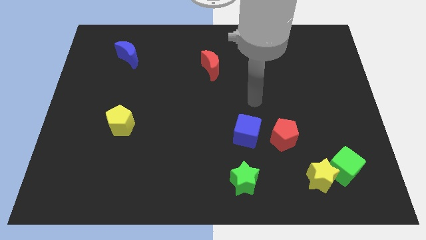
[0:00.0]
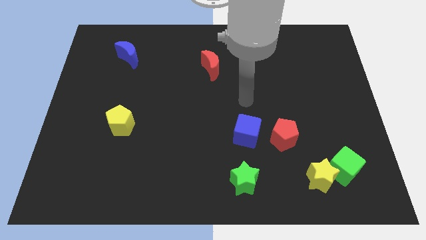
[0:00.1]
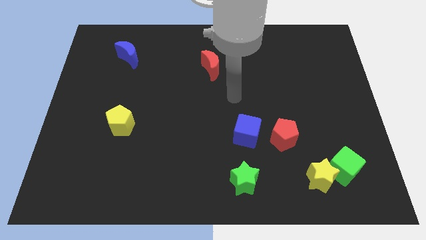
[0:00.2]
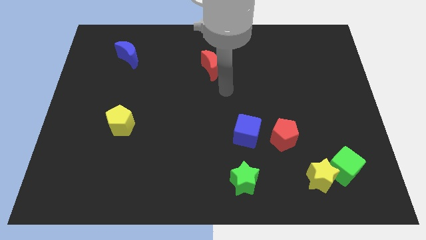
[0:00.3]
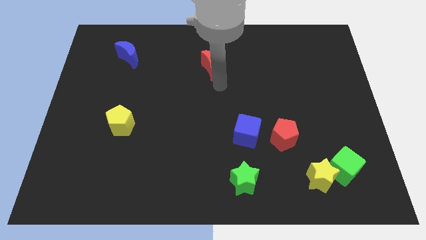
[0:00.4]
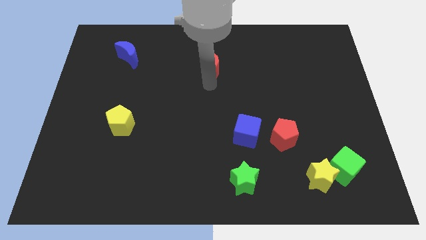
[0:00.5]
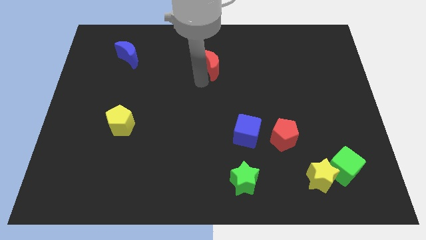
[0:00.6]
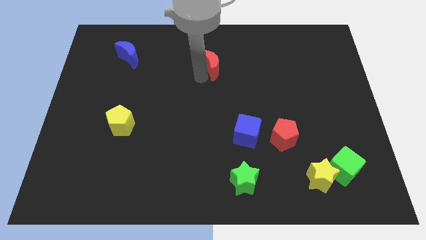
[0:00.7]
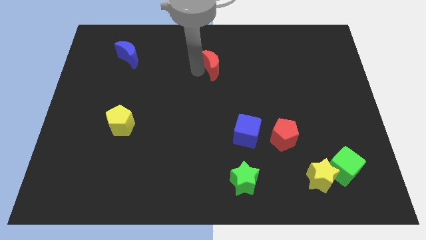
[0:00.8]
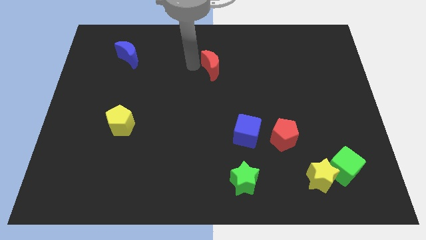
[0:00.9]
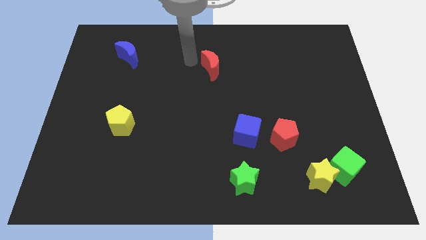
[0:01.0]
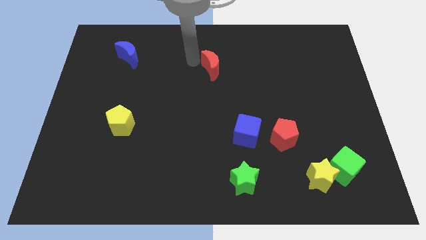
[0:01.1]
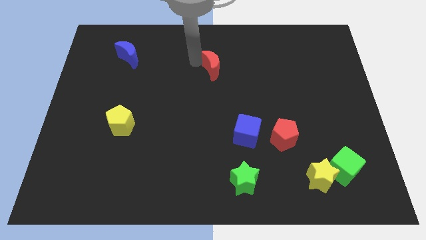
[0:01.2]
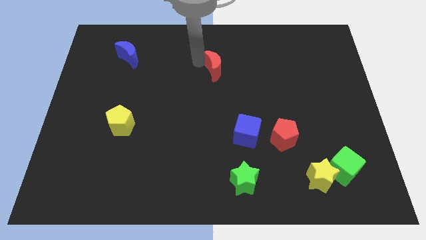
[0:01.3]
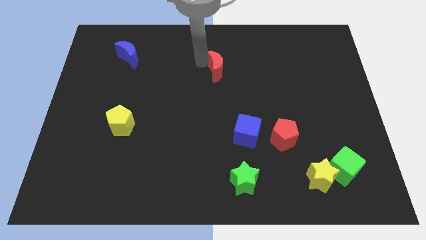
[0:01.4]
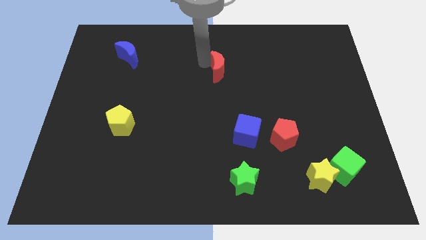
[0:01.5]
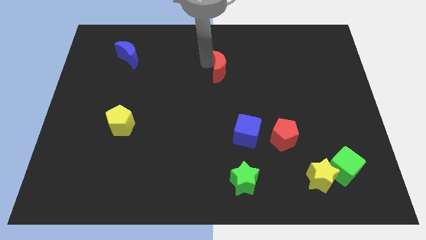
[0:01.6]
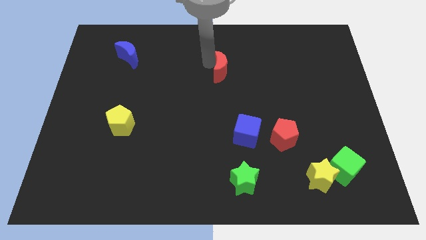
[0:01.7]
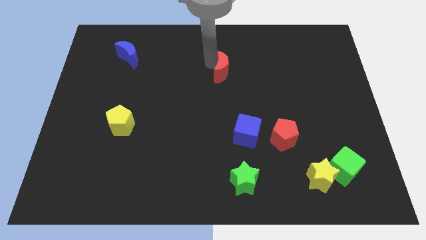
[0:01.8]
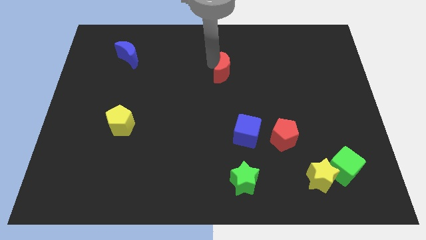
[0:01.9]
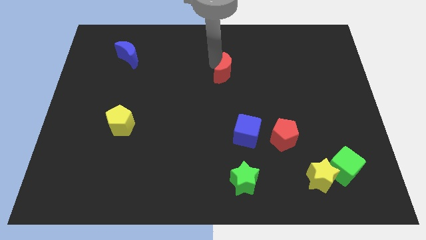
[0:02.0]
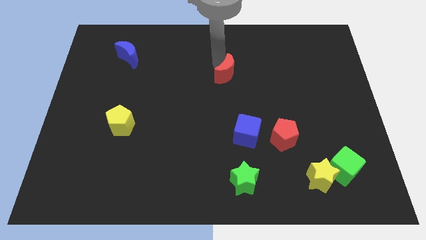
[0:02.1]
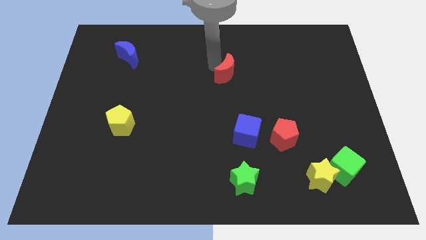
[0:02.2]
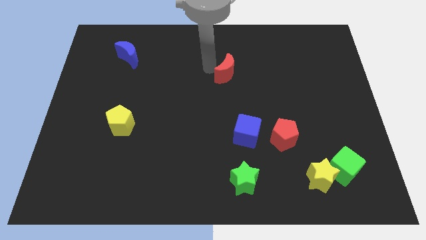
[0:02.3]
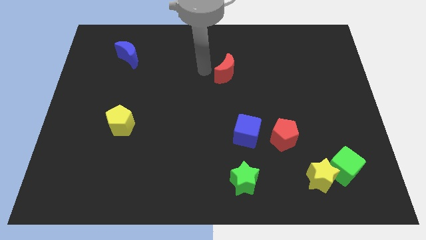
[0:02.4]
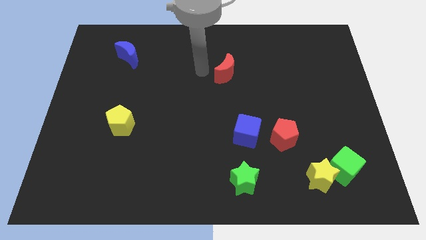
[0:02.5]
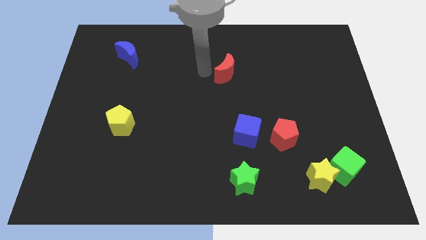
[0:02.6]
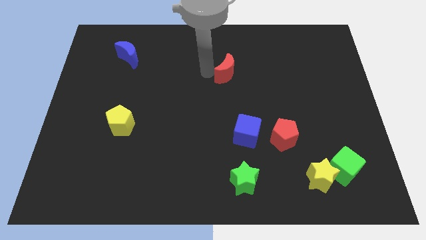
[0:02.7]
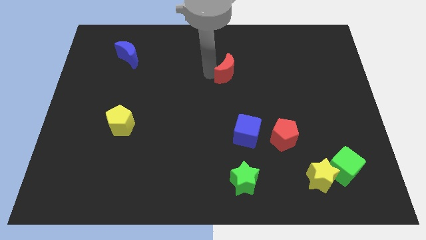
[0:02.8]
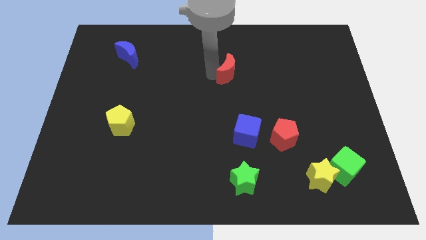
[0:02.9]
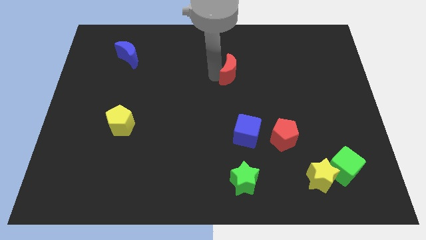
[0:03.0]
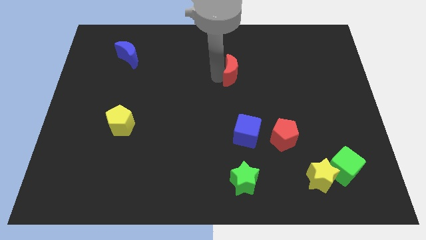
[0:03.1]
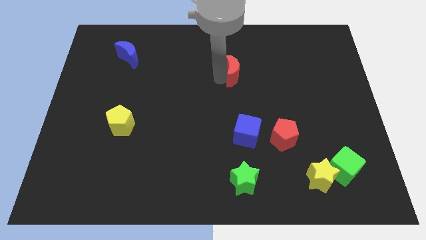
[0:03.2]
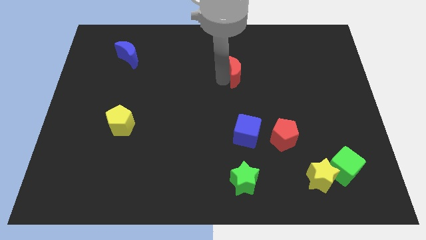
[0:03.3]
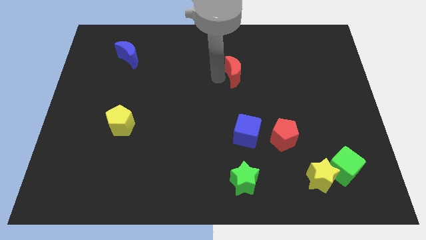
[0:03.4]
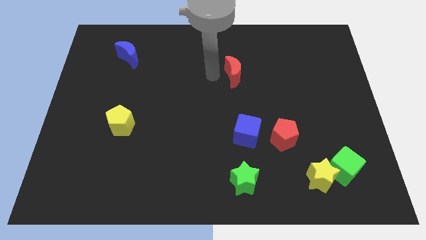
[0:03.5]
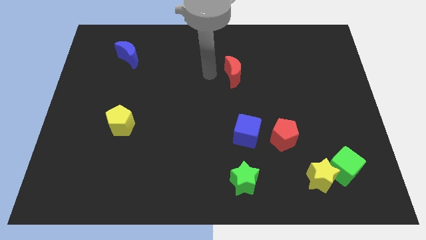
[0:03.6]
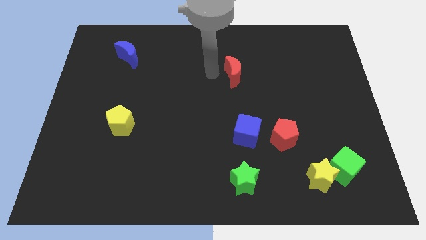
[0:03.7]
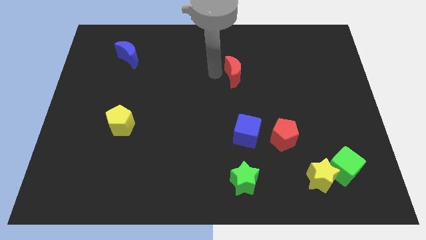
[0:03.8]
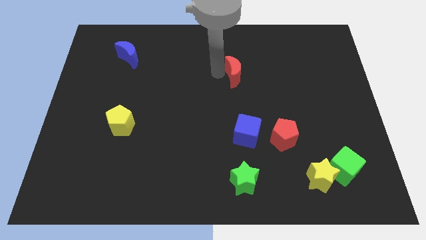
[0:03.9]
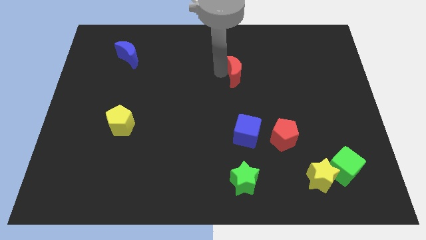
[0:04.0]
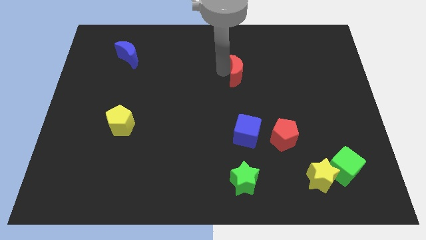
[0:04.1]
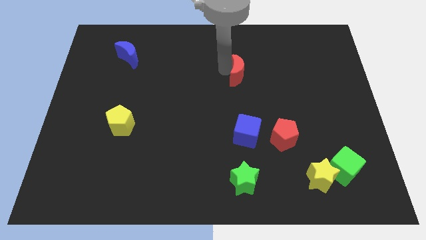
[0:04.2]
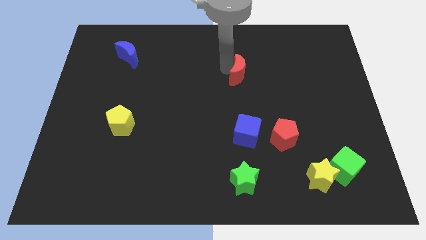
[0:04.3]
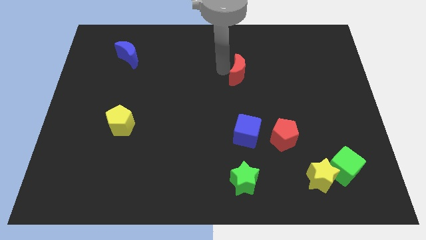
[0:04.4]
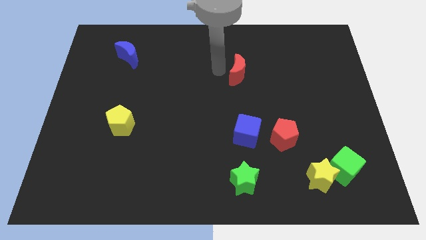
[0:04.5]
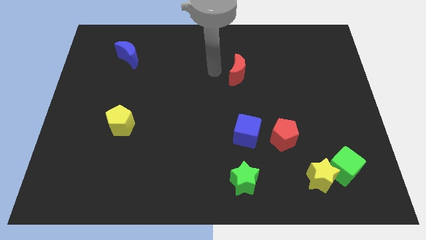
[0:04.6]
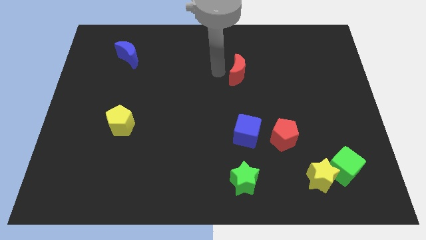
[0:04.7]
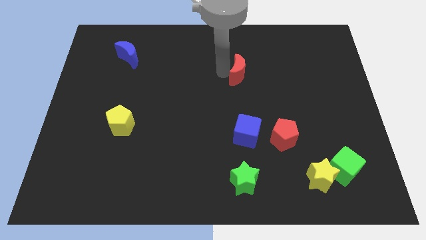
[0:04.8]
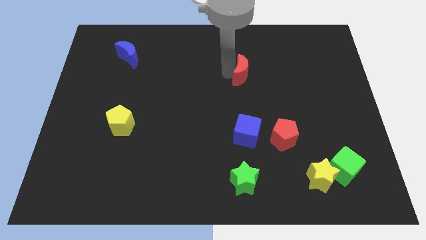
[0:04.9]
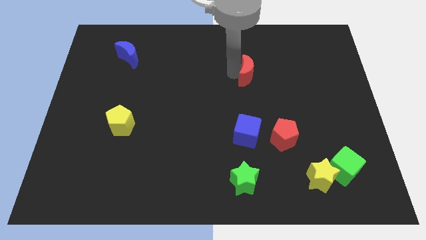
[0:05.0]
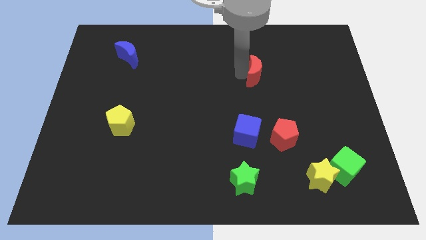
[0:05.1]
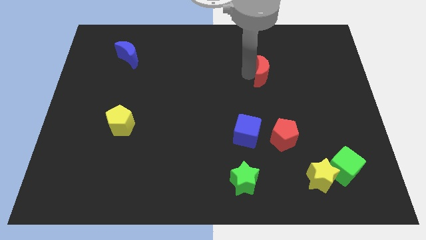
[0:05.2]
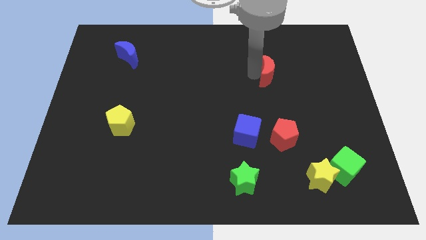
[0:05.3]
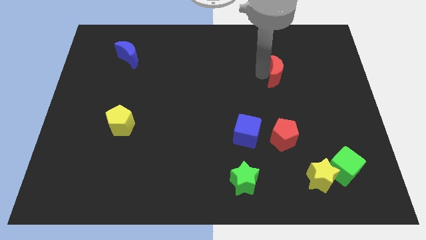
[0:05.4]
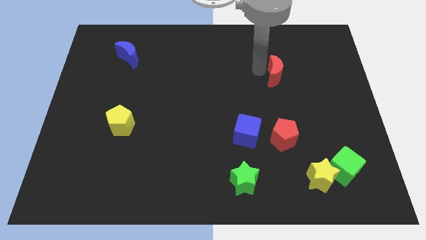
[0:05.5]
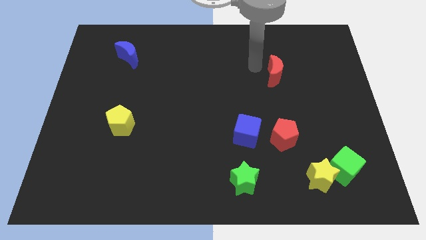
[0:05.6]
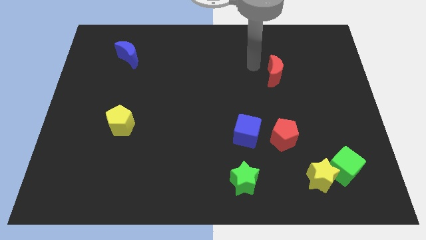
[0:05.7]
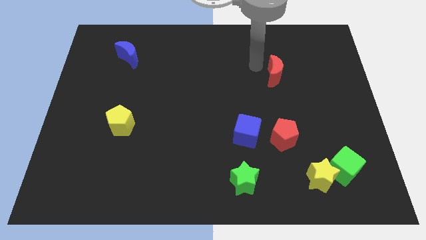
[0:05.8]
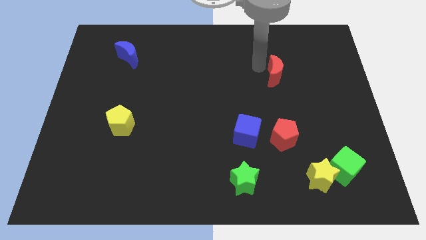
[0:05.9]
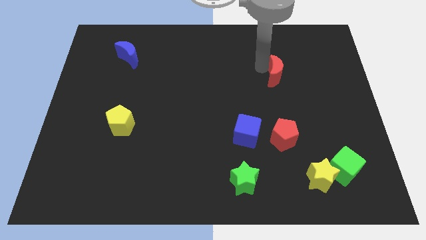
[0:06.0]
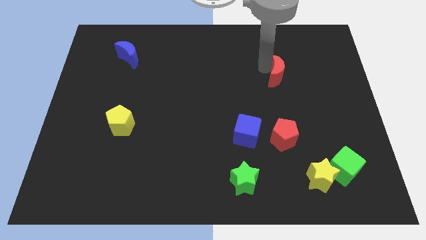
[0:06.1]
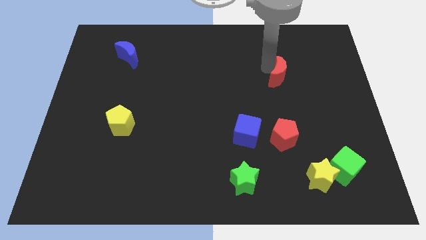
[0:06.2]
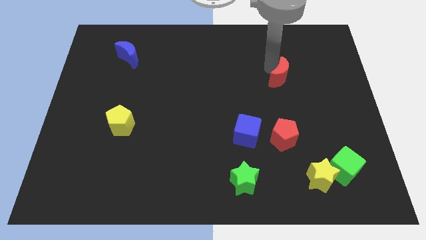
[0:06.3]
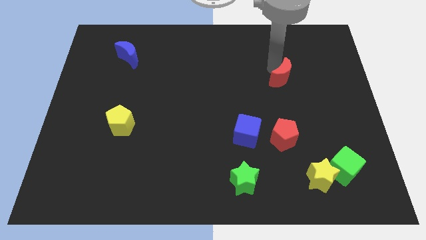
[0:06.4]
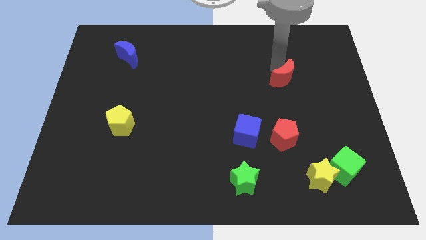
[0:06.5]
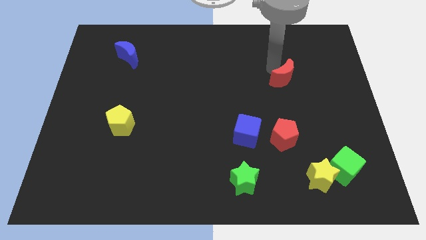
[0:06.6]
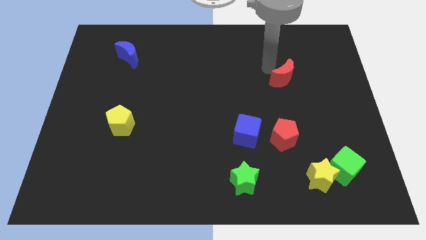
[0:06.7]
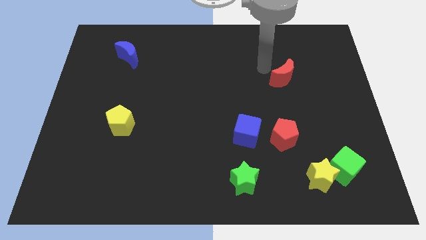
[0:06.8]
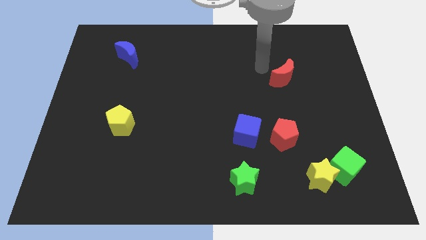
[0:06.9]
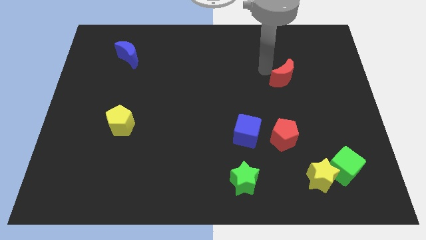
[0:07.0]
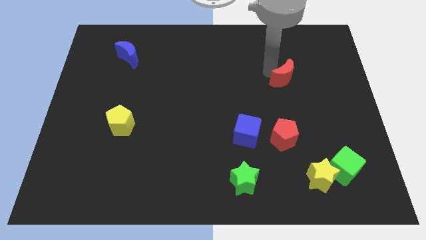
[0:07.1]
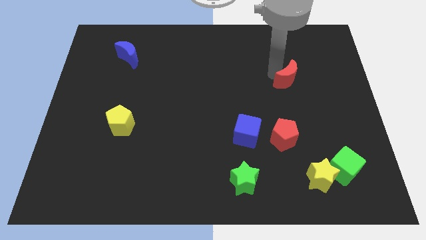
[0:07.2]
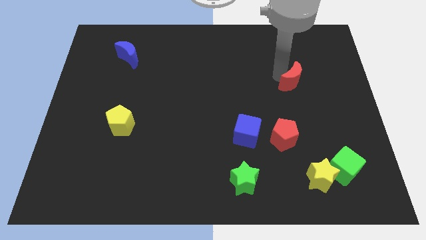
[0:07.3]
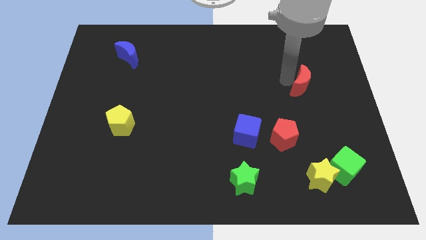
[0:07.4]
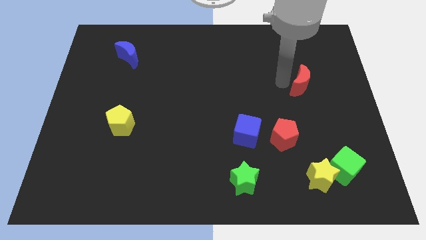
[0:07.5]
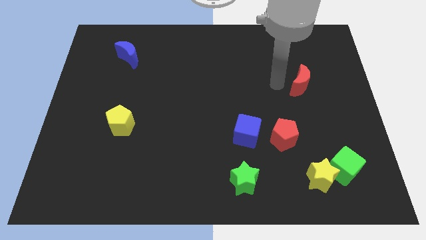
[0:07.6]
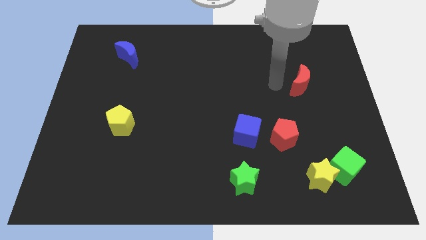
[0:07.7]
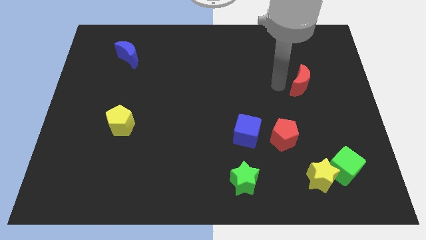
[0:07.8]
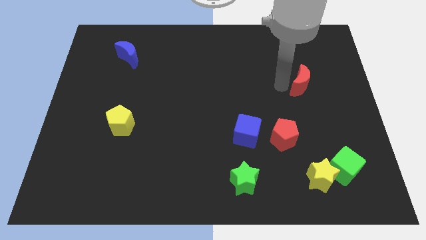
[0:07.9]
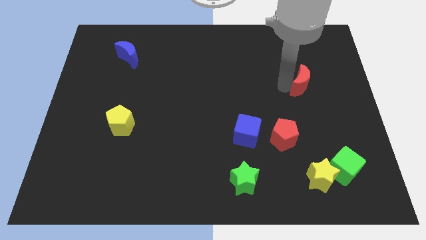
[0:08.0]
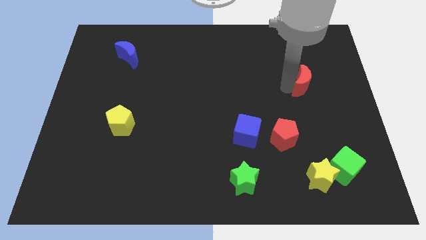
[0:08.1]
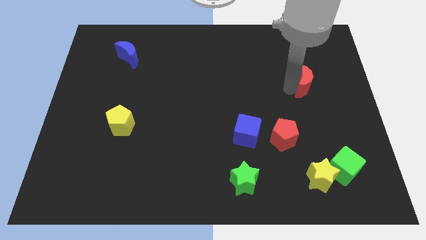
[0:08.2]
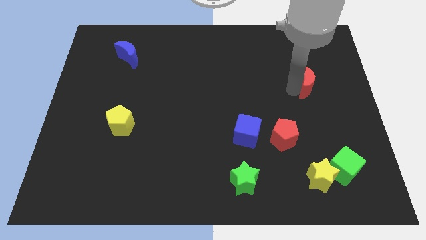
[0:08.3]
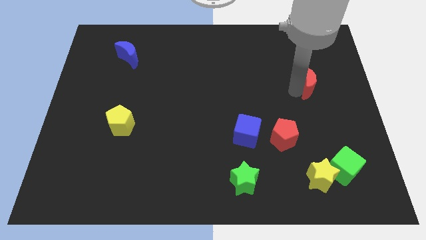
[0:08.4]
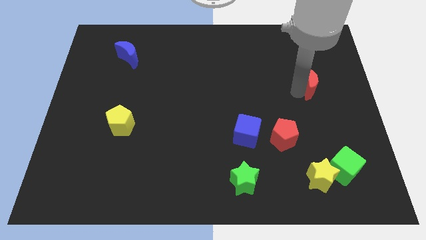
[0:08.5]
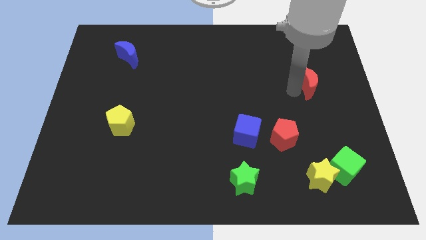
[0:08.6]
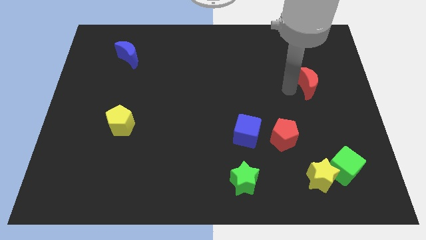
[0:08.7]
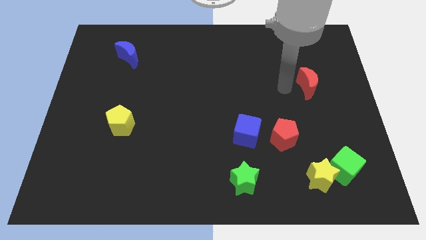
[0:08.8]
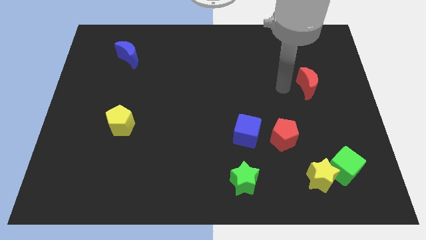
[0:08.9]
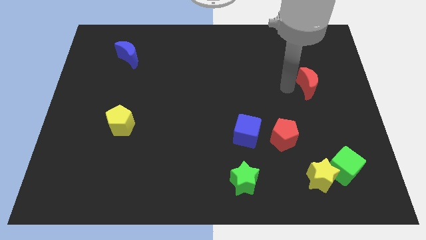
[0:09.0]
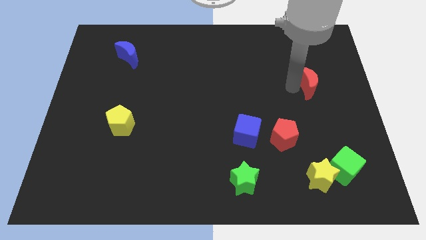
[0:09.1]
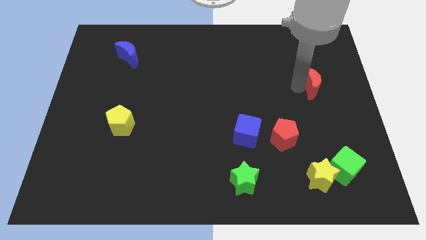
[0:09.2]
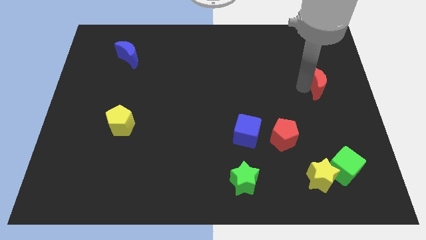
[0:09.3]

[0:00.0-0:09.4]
put the red moon to the right side
